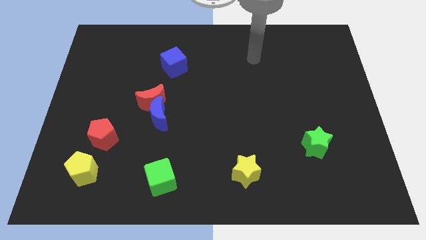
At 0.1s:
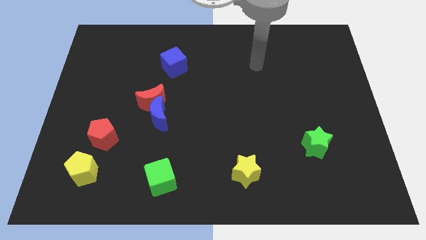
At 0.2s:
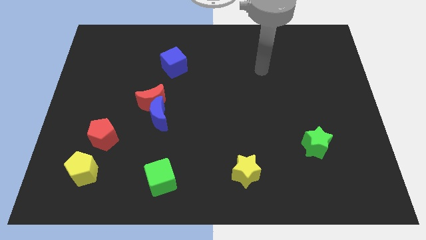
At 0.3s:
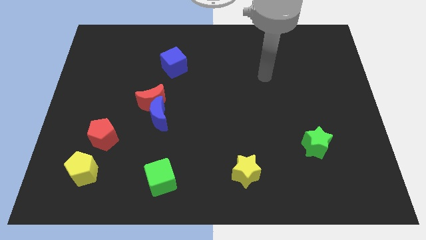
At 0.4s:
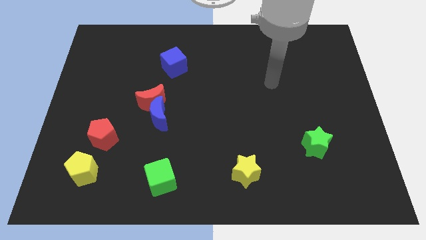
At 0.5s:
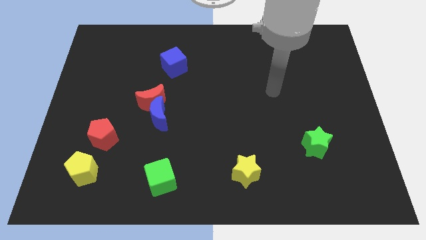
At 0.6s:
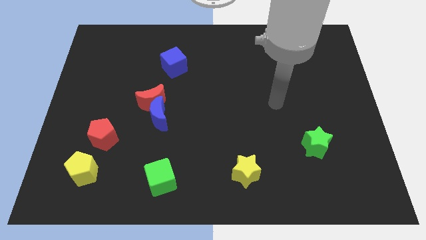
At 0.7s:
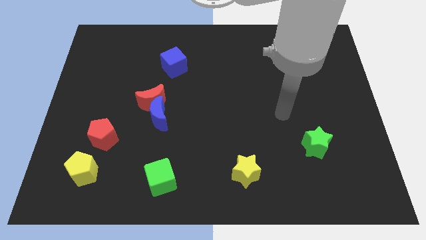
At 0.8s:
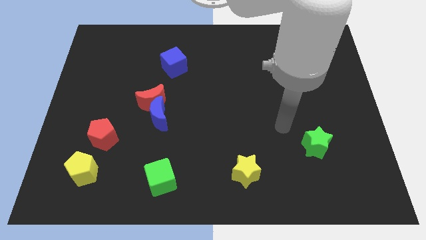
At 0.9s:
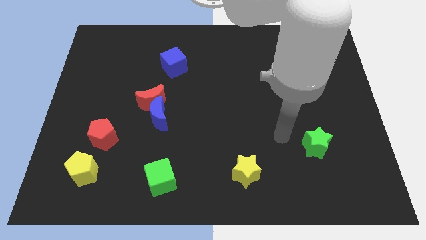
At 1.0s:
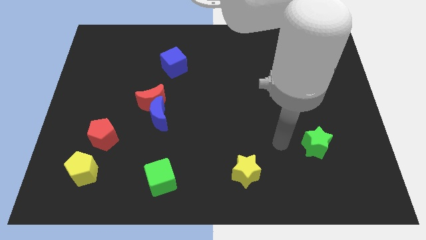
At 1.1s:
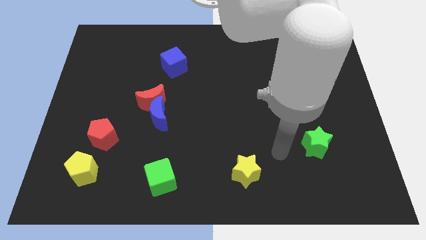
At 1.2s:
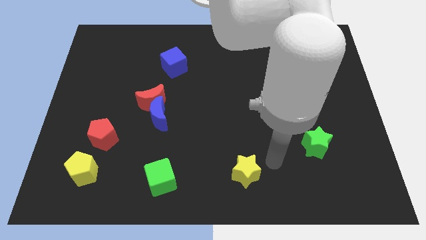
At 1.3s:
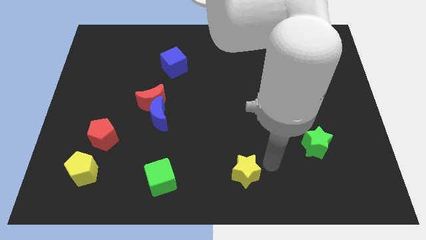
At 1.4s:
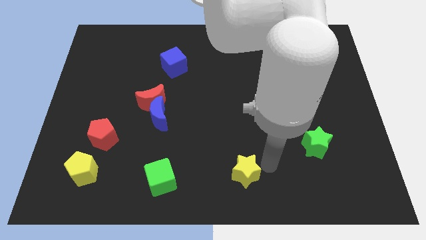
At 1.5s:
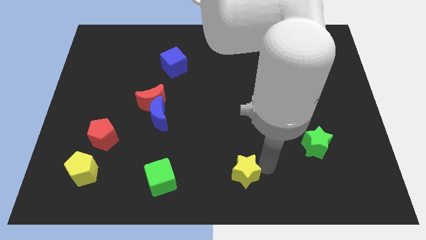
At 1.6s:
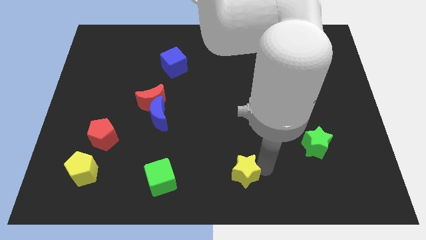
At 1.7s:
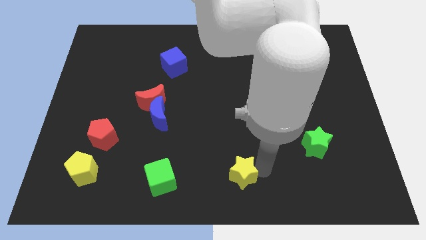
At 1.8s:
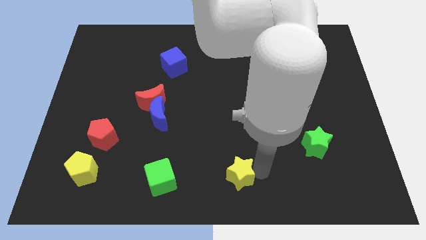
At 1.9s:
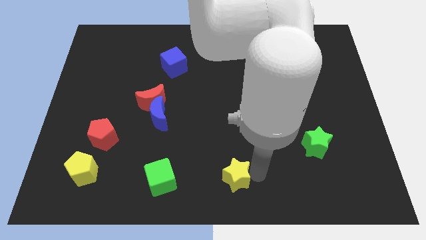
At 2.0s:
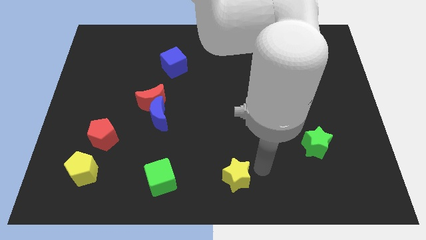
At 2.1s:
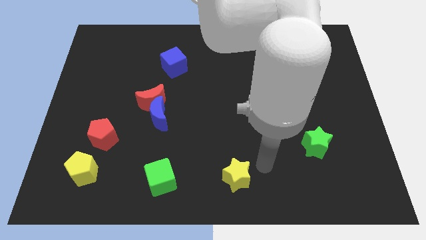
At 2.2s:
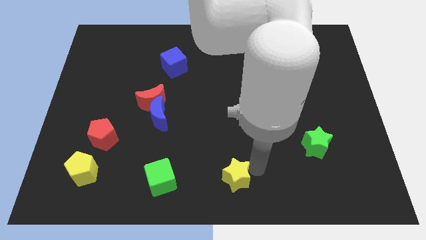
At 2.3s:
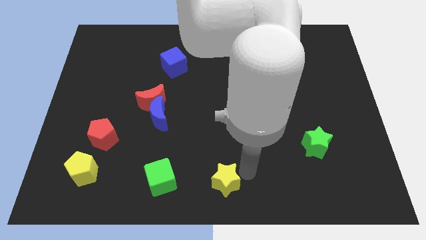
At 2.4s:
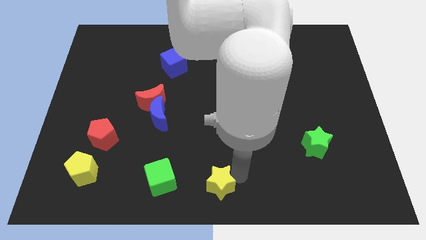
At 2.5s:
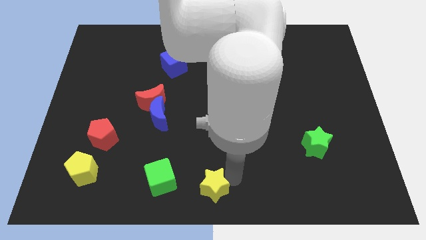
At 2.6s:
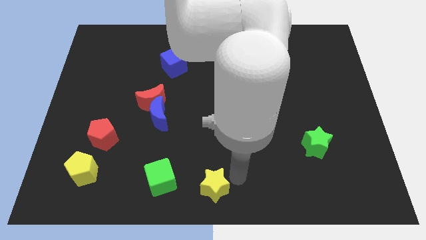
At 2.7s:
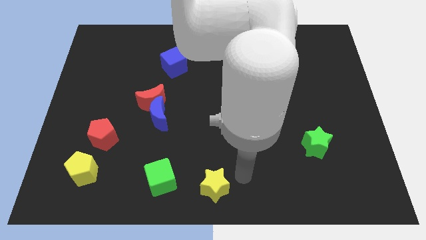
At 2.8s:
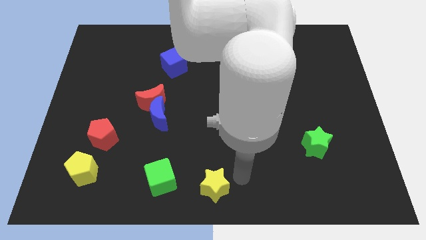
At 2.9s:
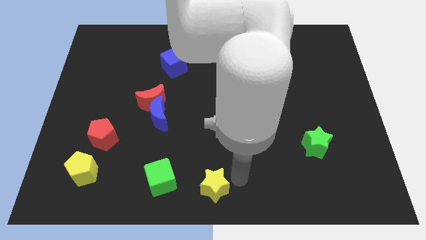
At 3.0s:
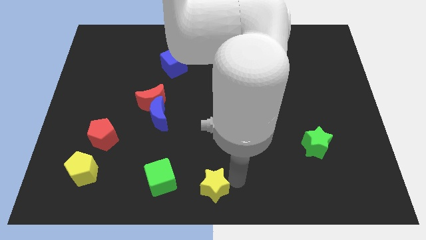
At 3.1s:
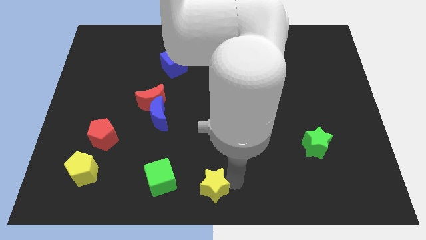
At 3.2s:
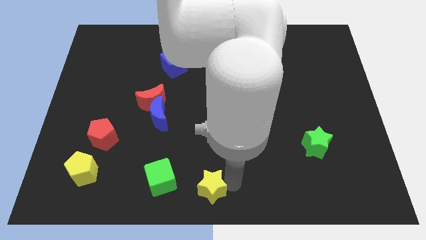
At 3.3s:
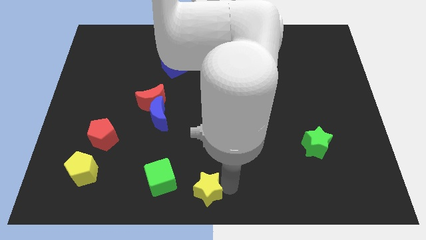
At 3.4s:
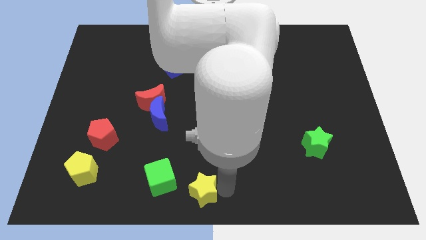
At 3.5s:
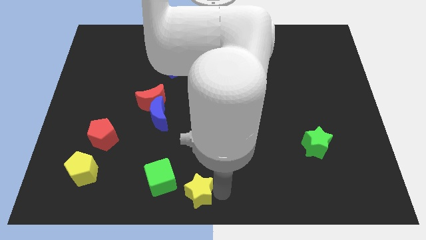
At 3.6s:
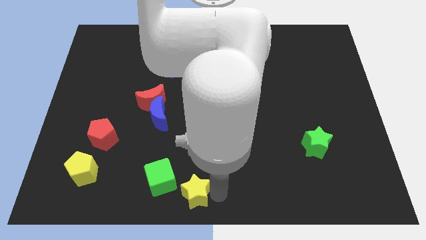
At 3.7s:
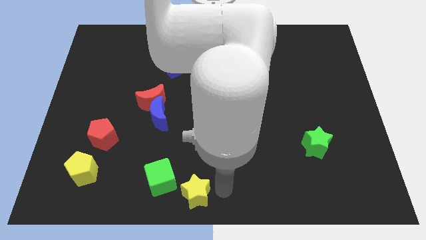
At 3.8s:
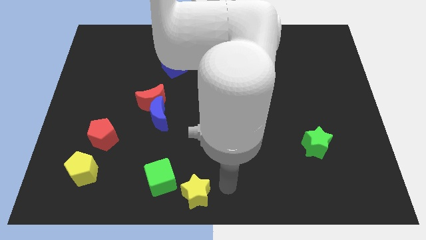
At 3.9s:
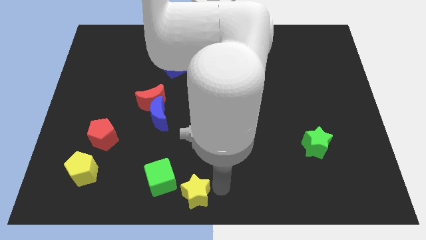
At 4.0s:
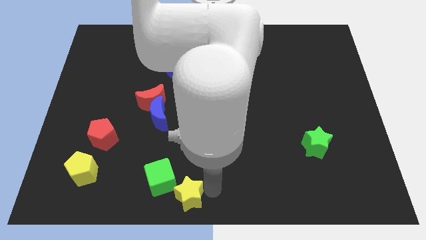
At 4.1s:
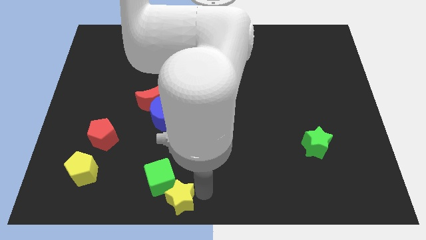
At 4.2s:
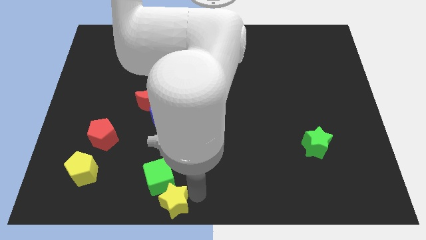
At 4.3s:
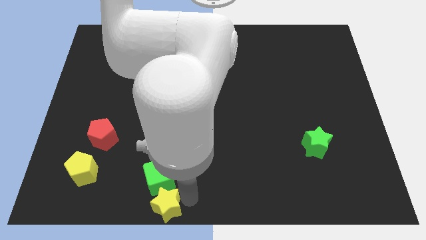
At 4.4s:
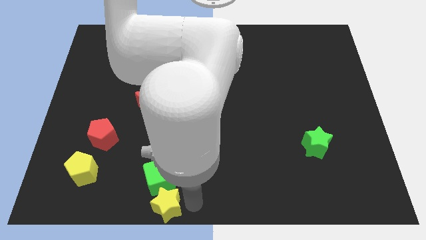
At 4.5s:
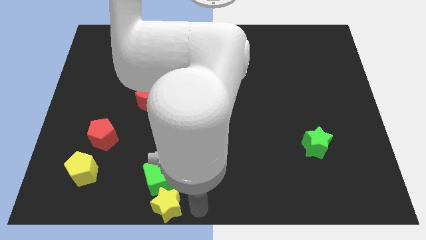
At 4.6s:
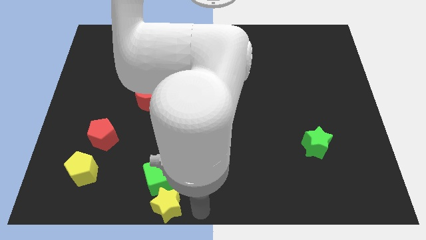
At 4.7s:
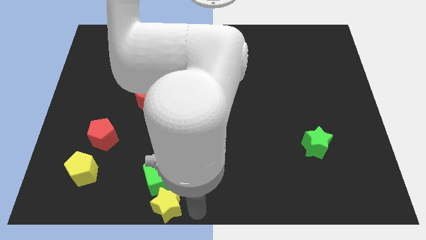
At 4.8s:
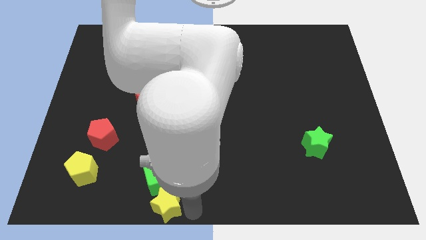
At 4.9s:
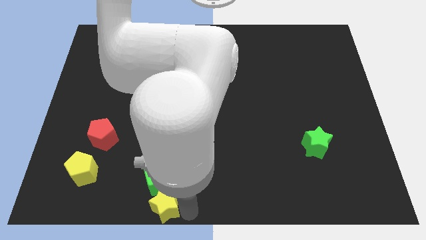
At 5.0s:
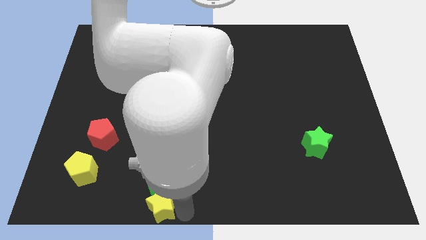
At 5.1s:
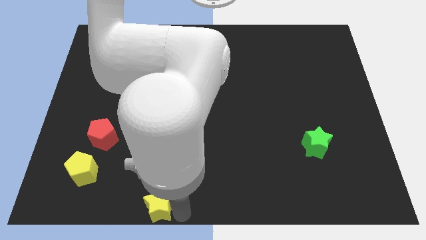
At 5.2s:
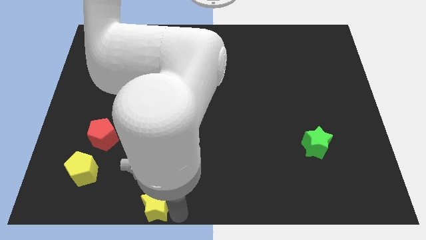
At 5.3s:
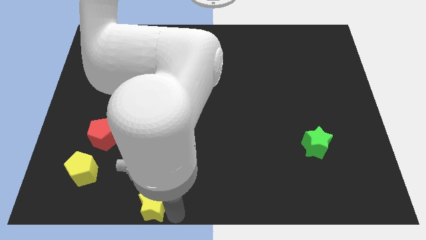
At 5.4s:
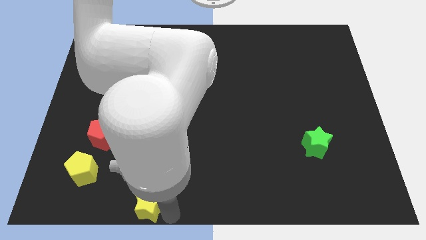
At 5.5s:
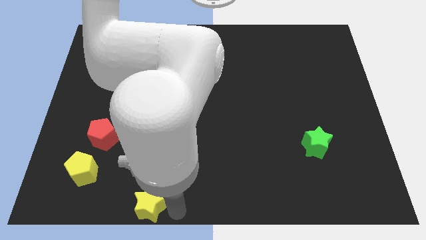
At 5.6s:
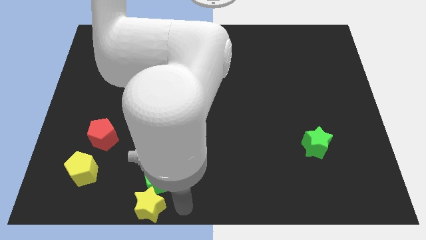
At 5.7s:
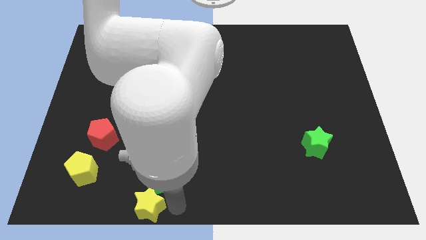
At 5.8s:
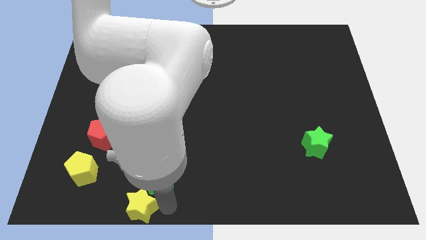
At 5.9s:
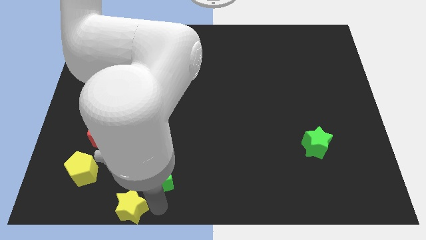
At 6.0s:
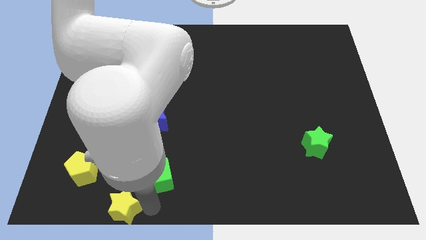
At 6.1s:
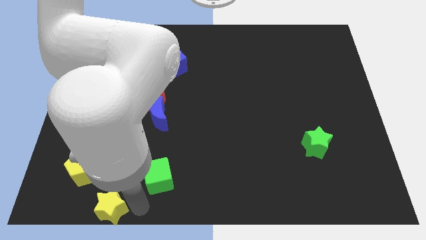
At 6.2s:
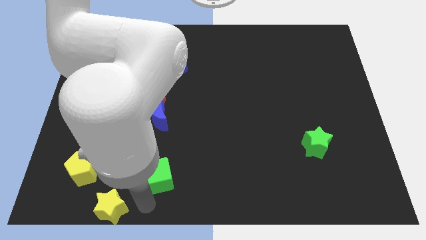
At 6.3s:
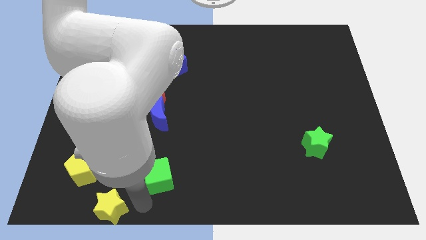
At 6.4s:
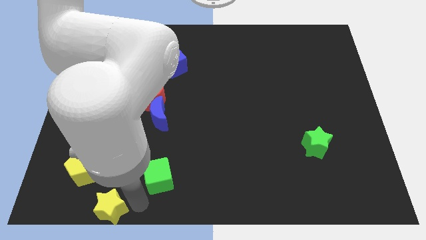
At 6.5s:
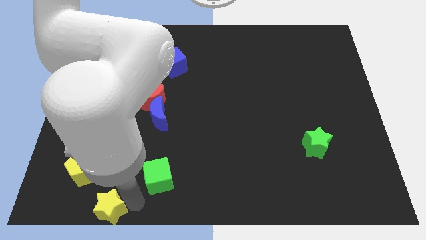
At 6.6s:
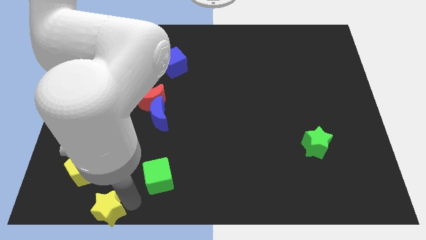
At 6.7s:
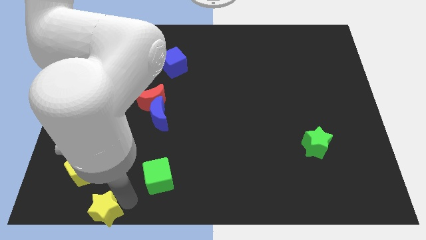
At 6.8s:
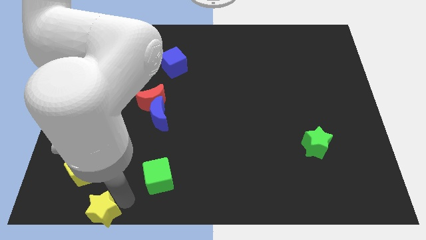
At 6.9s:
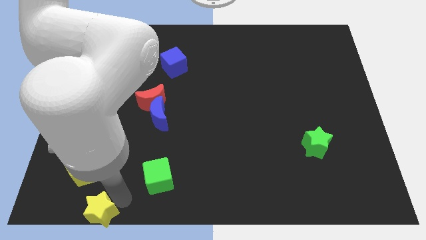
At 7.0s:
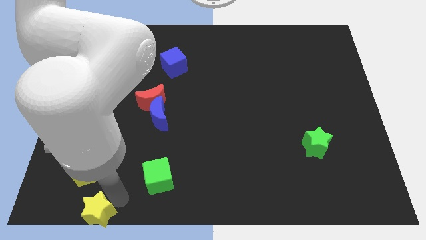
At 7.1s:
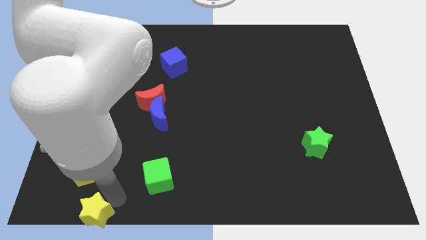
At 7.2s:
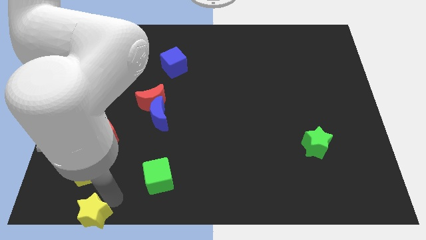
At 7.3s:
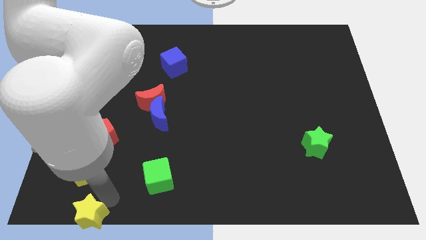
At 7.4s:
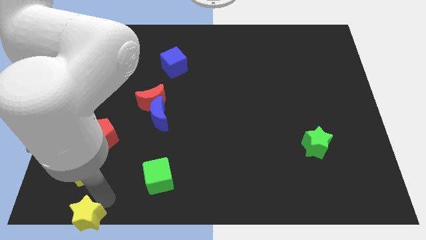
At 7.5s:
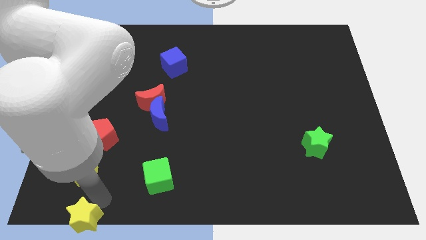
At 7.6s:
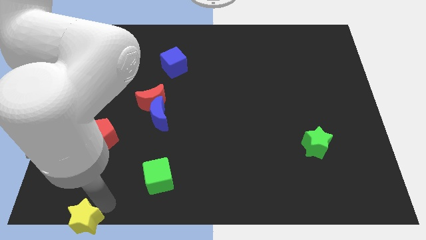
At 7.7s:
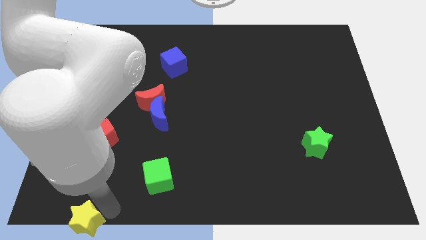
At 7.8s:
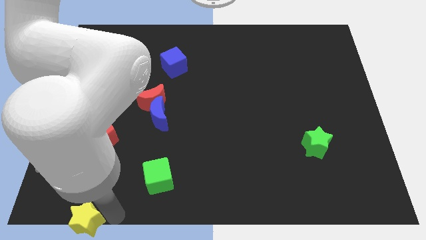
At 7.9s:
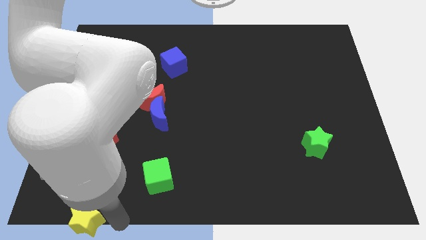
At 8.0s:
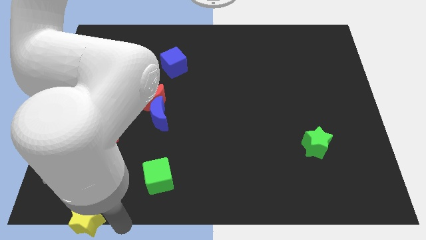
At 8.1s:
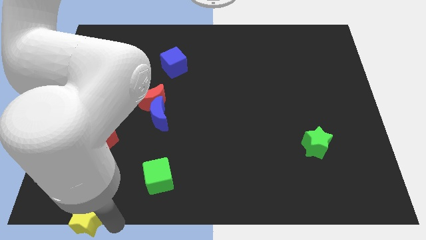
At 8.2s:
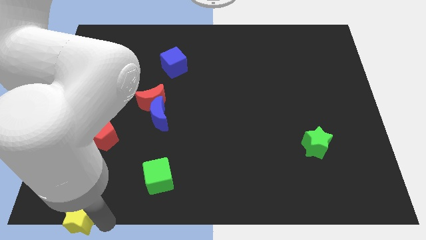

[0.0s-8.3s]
slide the yellow star to the lower left corner
